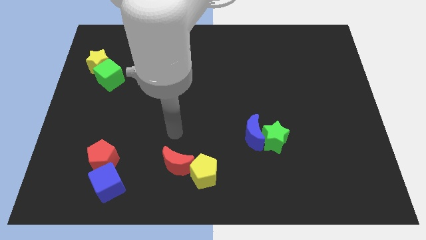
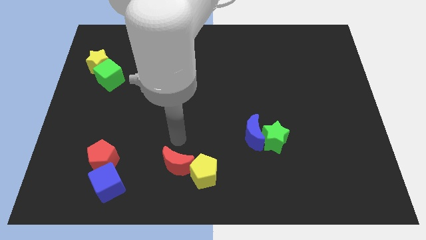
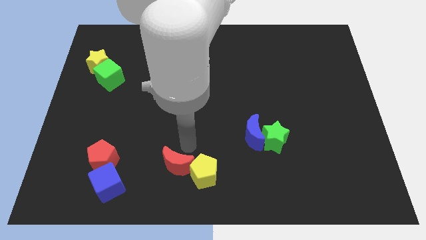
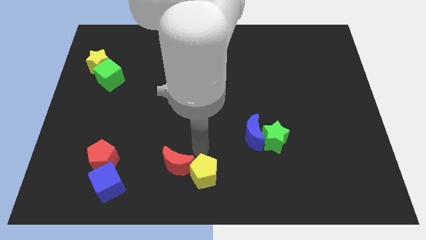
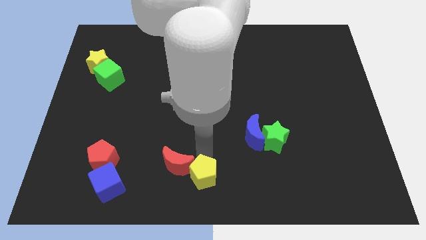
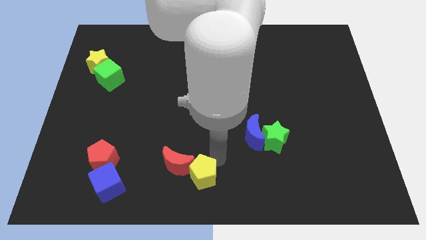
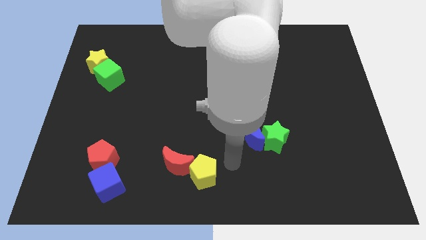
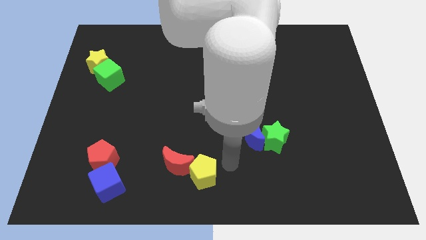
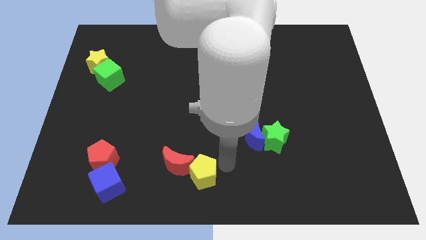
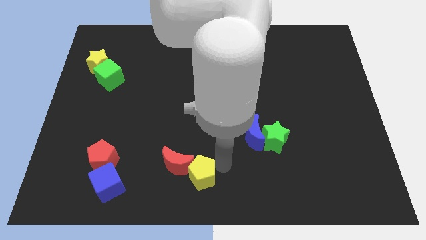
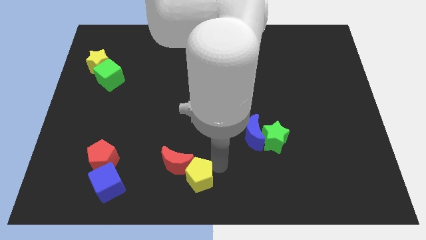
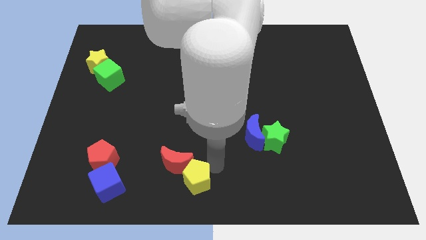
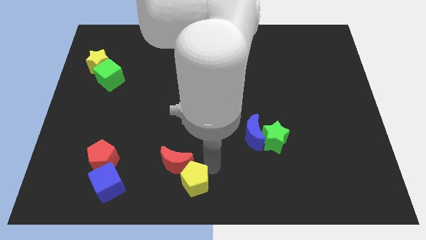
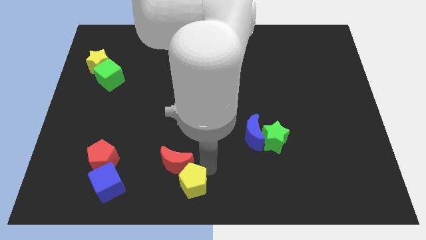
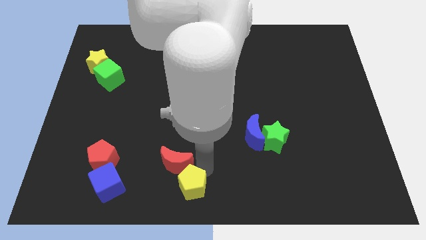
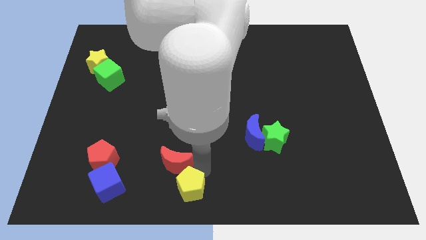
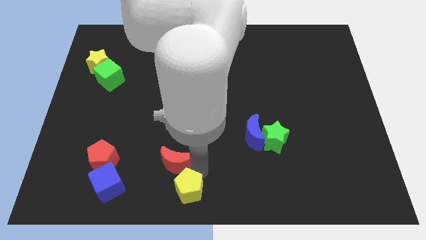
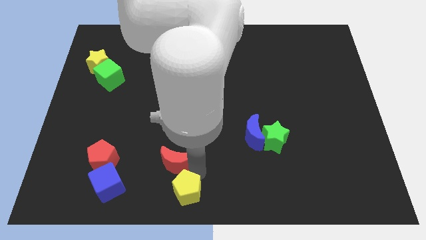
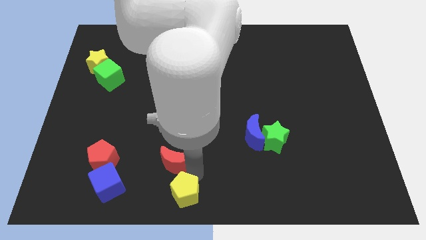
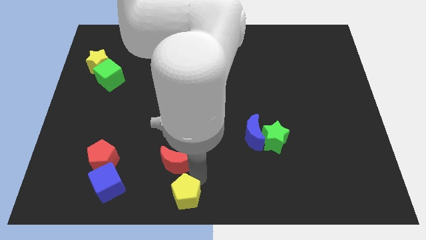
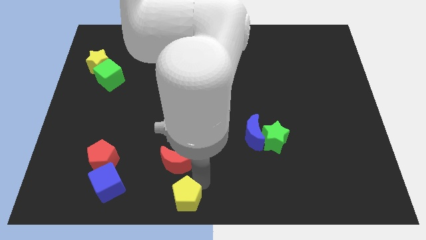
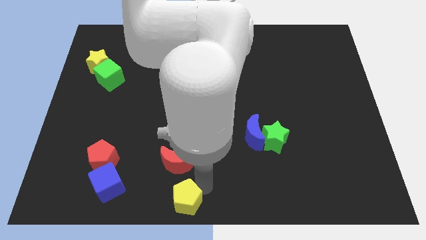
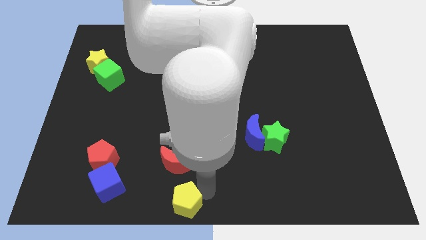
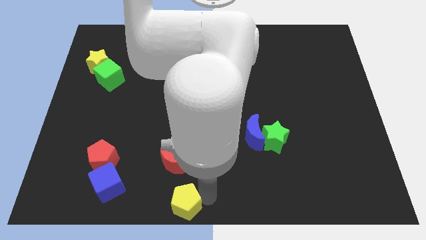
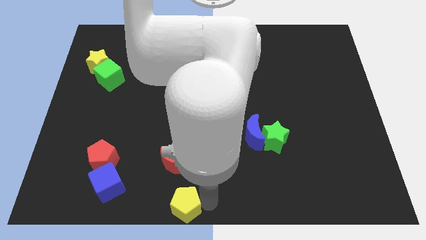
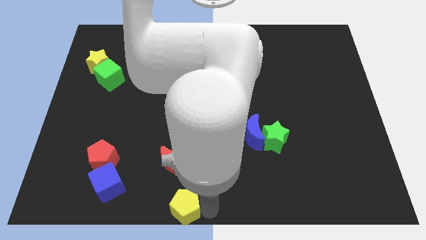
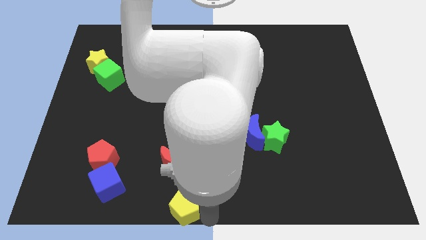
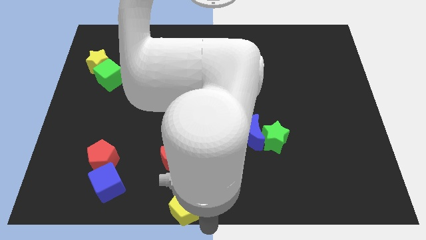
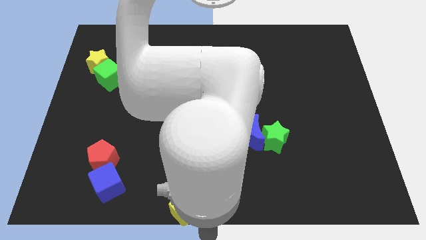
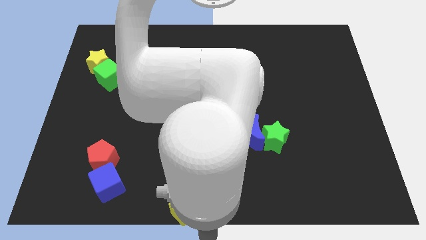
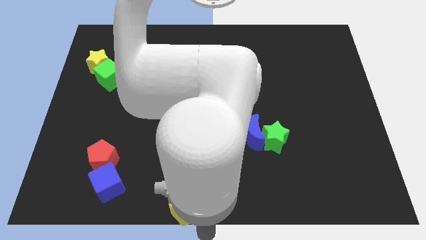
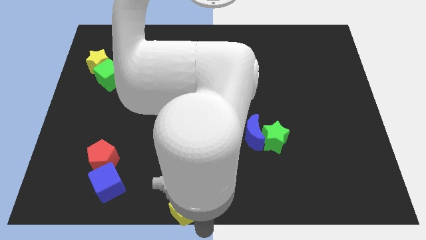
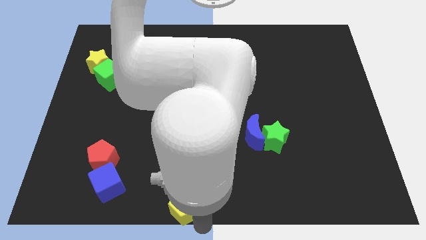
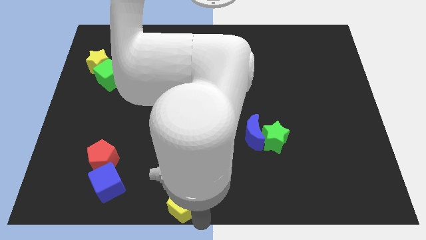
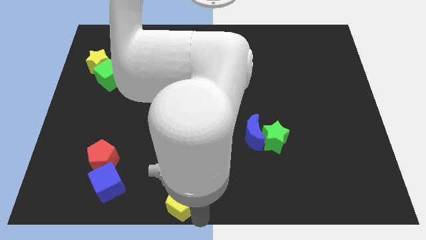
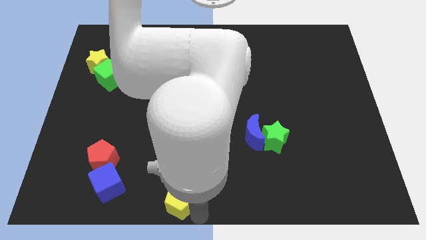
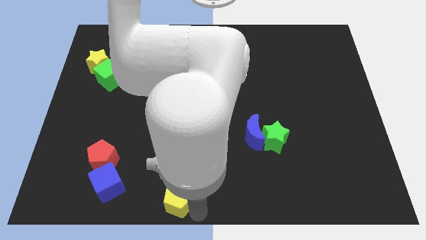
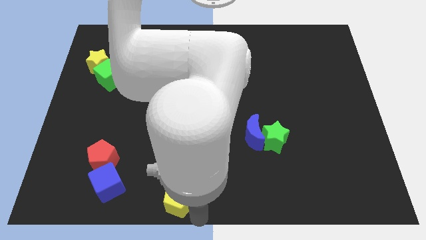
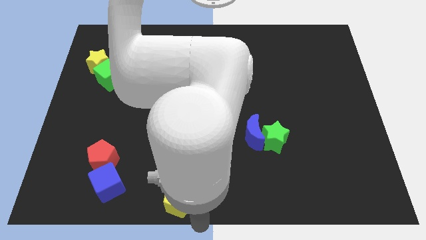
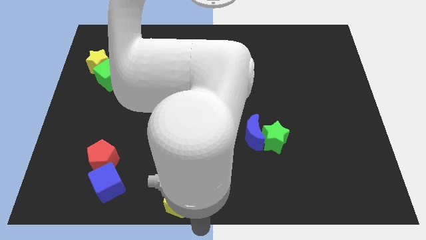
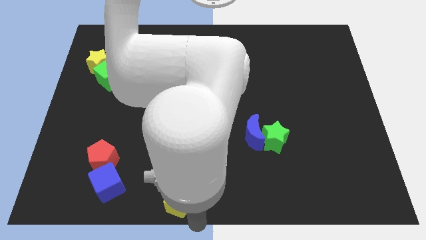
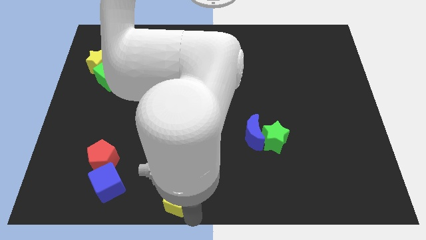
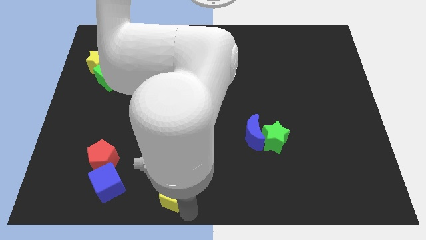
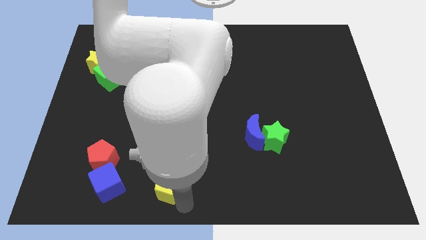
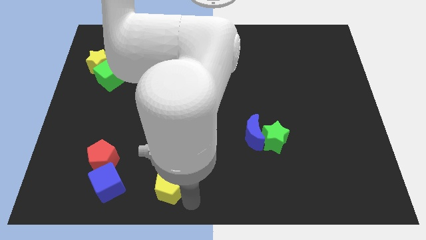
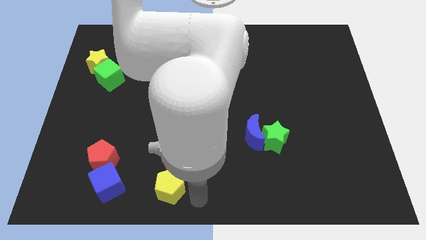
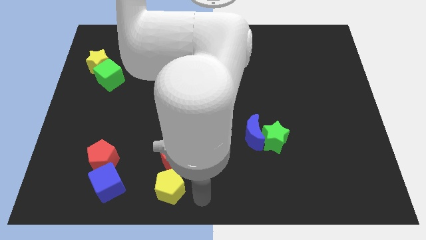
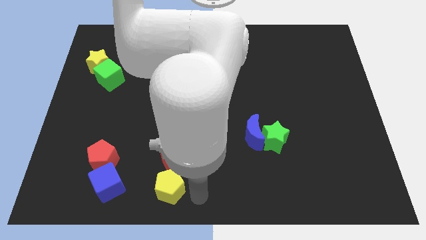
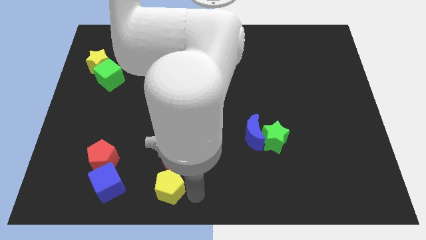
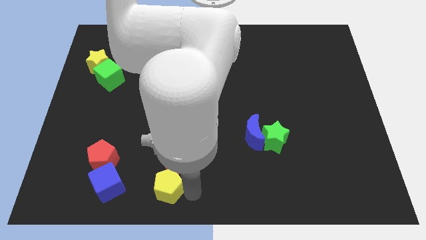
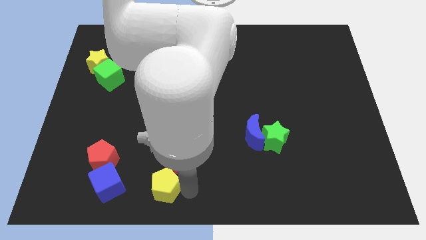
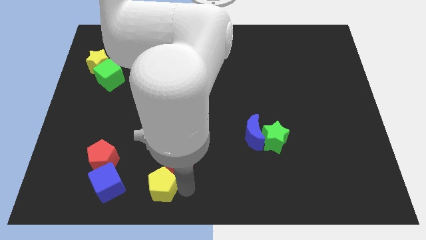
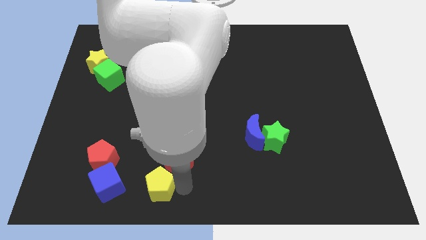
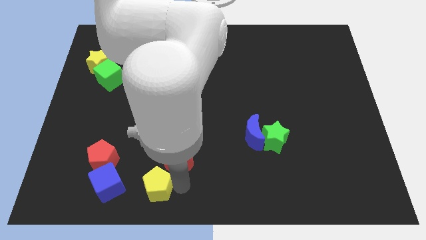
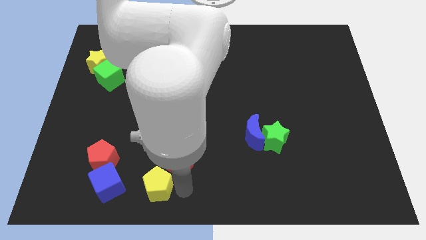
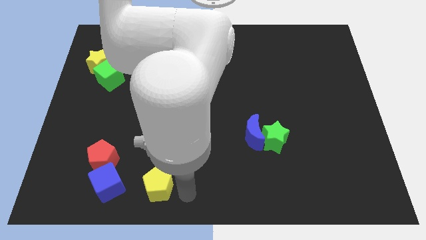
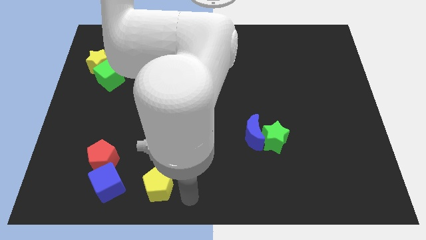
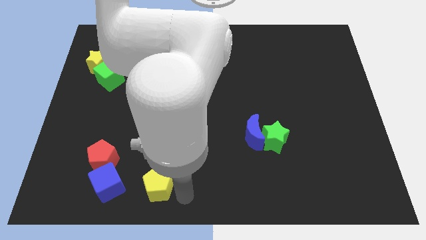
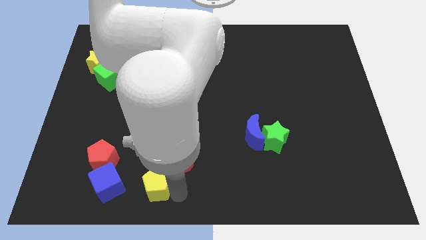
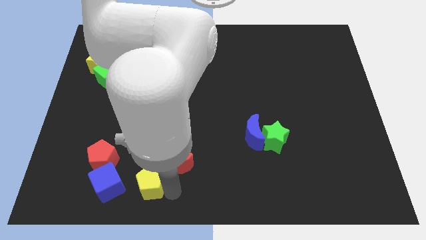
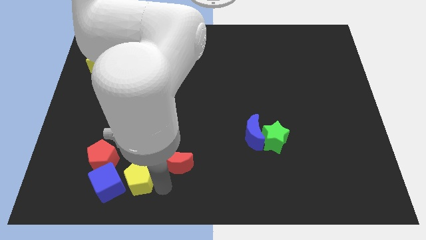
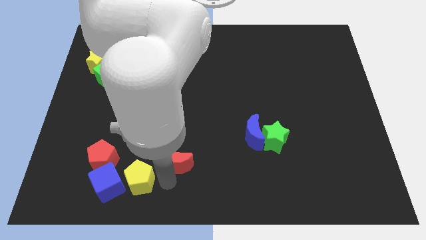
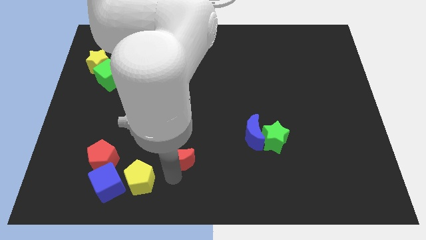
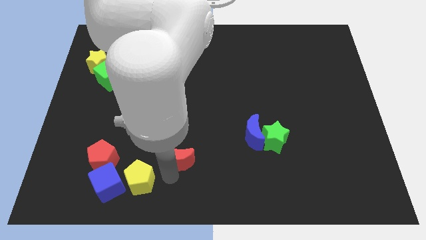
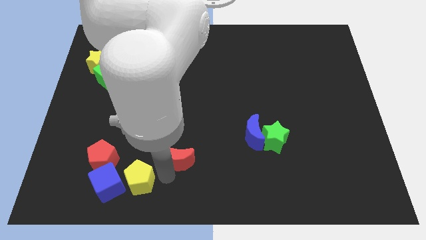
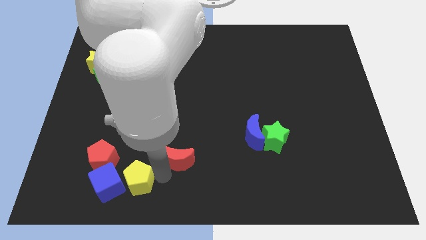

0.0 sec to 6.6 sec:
push the yellow pentagon next to the blue cube

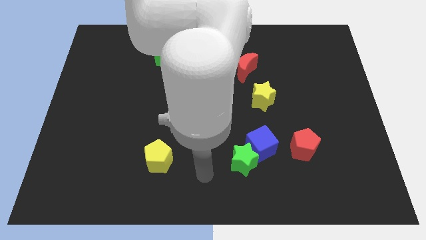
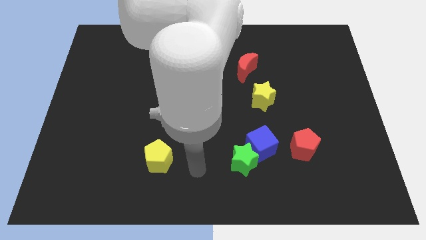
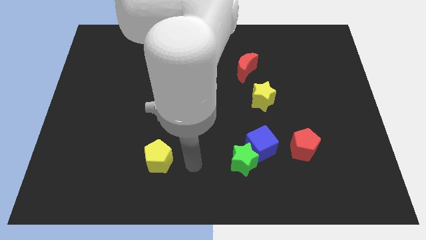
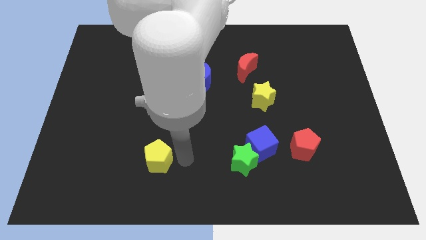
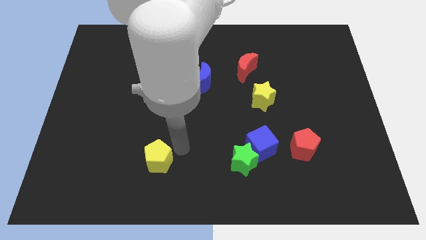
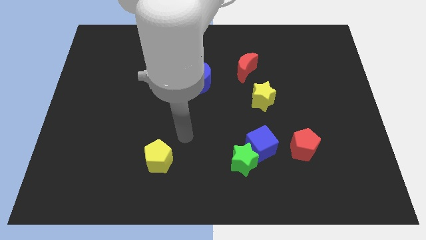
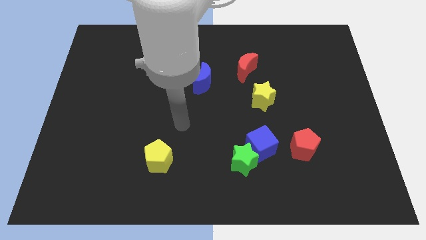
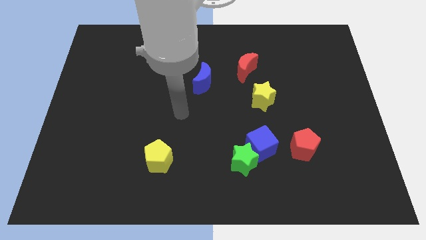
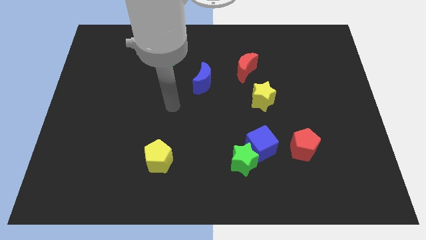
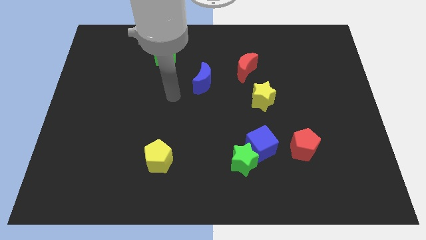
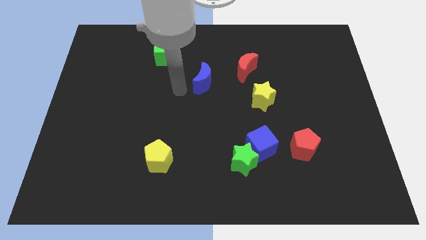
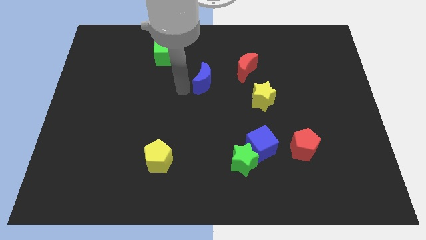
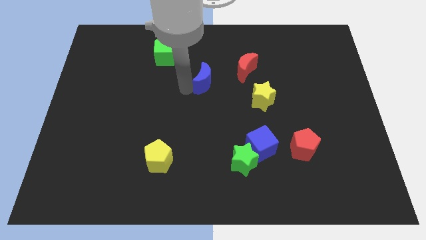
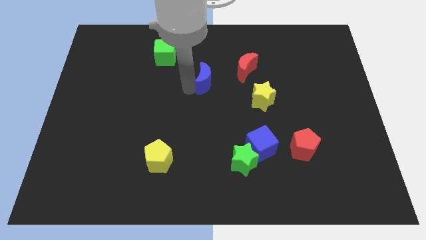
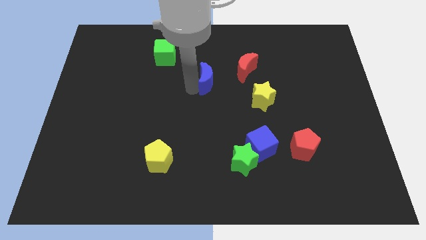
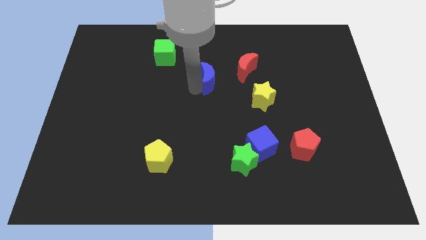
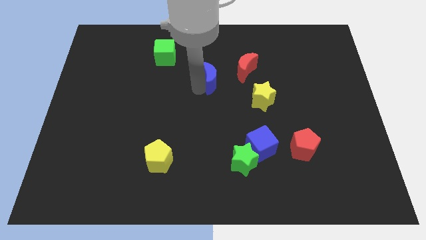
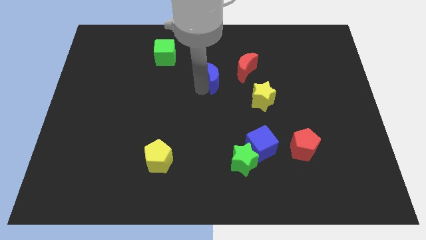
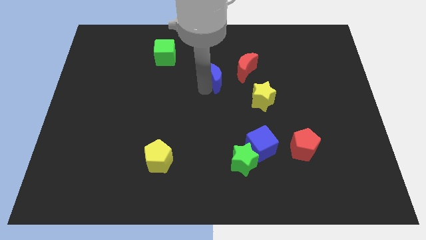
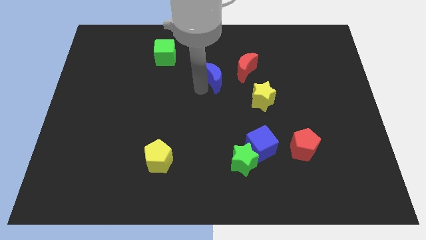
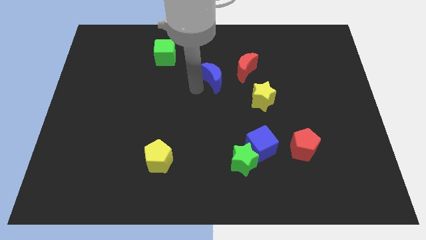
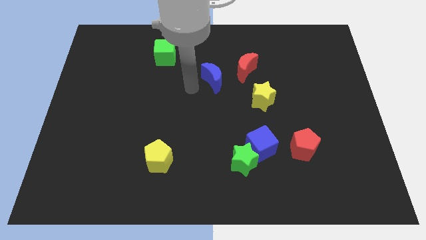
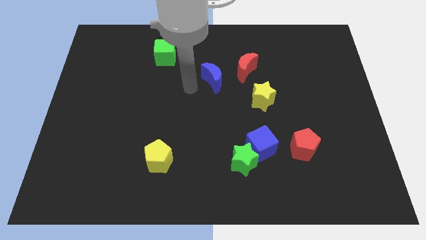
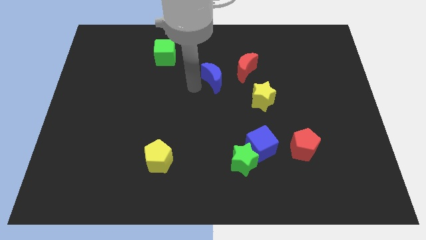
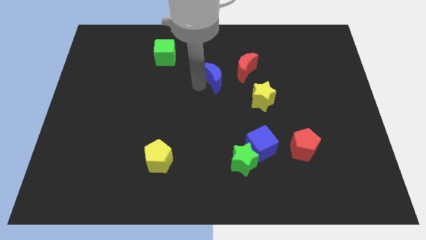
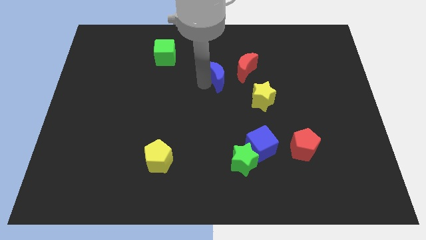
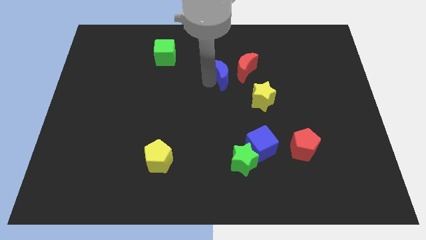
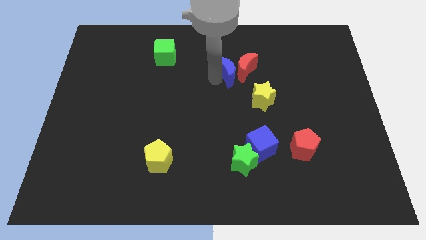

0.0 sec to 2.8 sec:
push the blue moon close to the red moon
